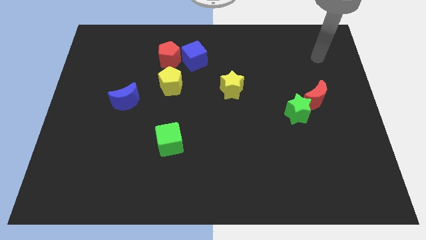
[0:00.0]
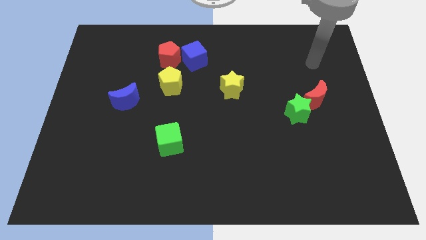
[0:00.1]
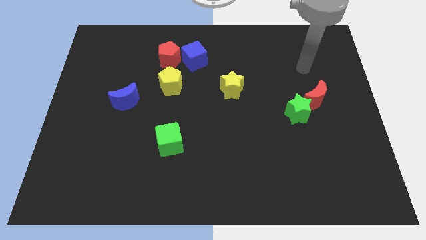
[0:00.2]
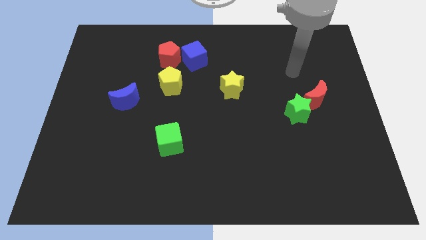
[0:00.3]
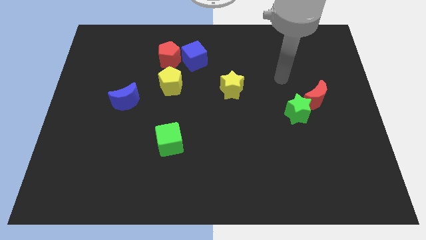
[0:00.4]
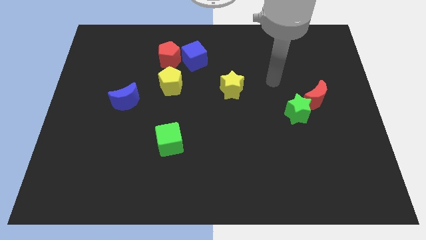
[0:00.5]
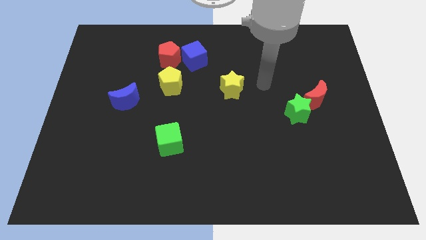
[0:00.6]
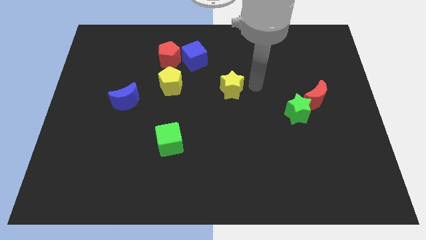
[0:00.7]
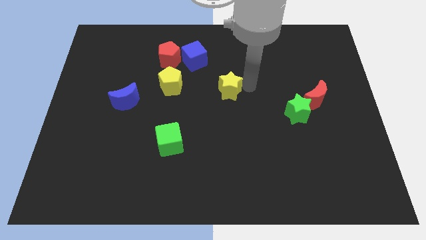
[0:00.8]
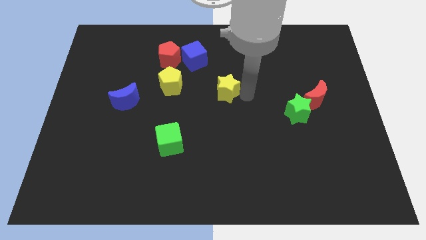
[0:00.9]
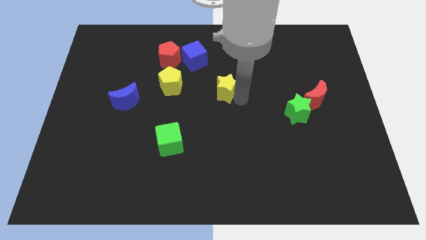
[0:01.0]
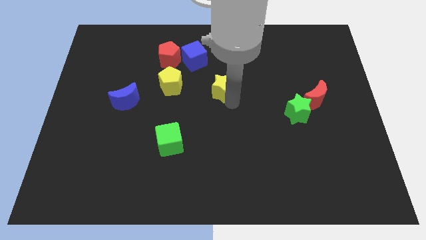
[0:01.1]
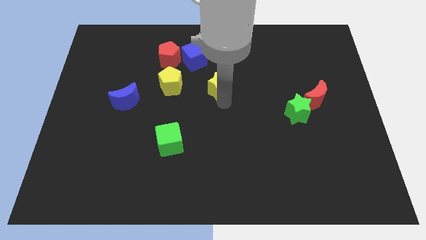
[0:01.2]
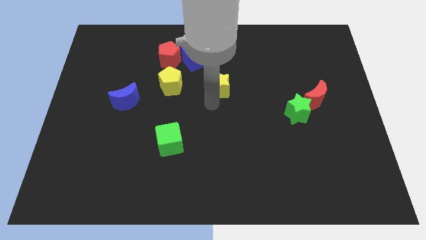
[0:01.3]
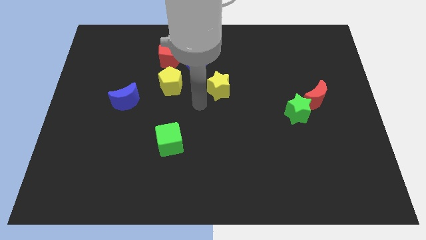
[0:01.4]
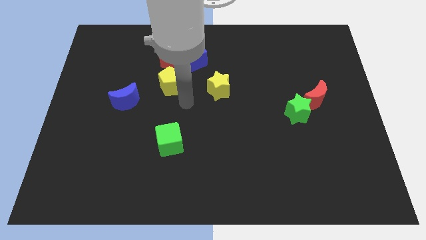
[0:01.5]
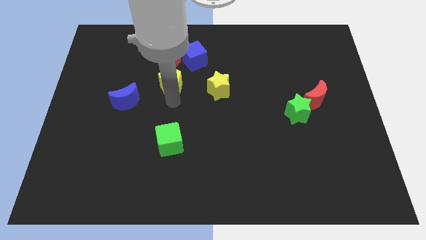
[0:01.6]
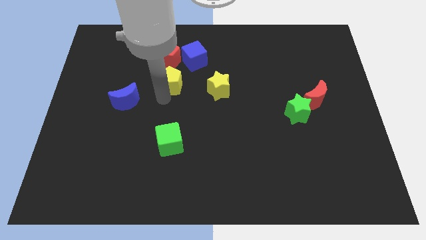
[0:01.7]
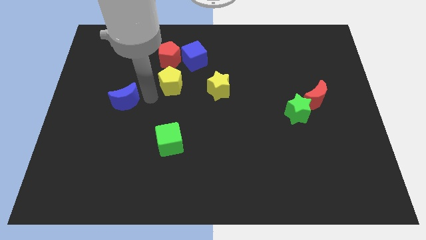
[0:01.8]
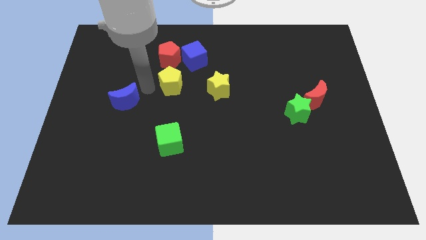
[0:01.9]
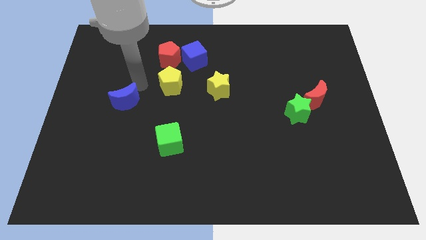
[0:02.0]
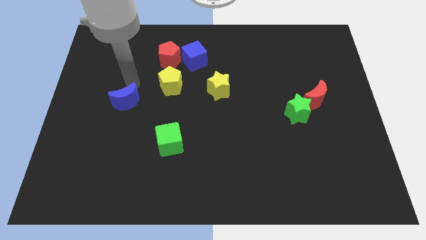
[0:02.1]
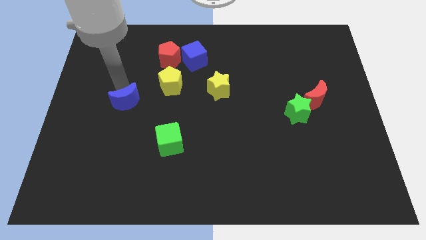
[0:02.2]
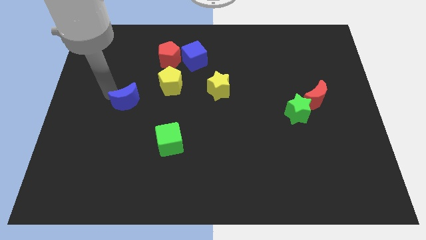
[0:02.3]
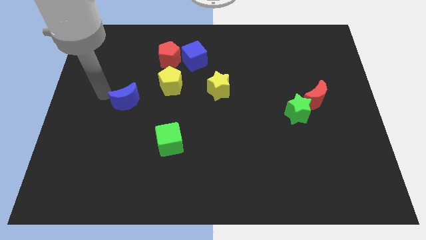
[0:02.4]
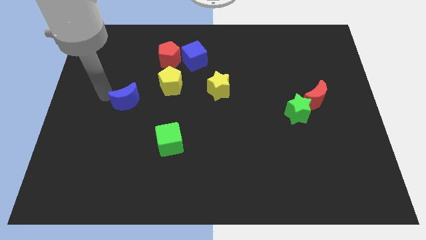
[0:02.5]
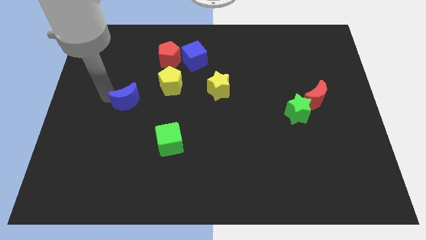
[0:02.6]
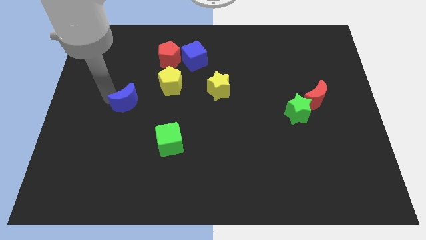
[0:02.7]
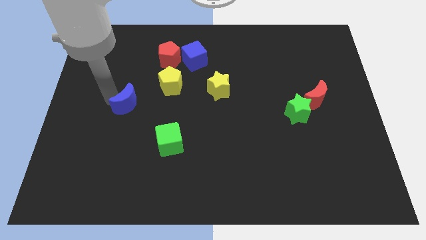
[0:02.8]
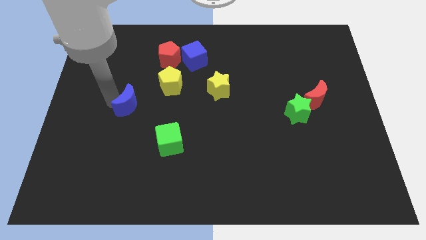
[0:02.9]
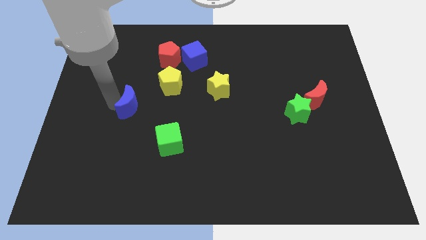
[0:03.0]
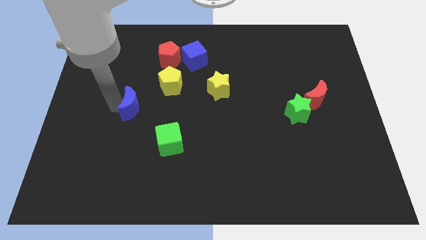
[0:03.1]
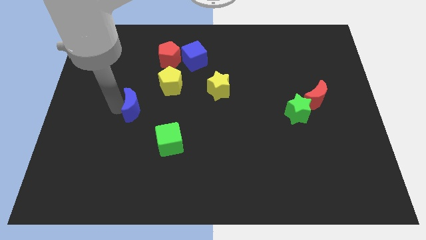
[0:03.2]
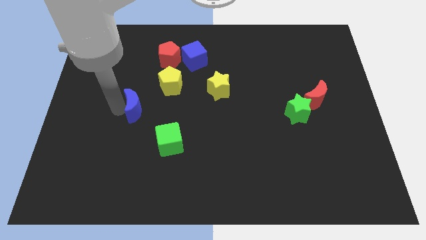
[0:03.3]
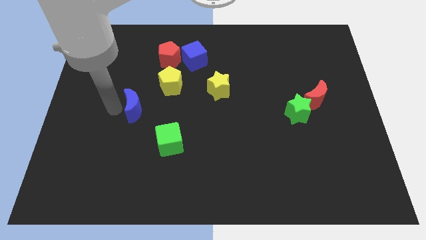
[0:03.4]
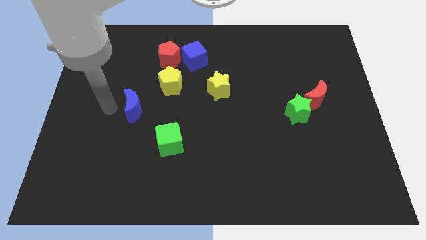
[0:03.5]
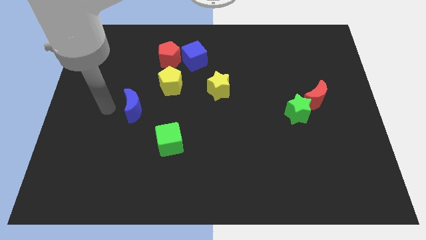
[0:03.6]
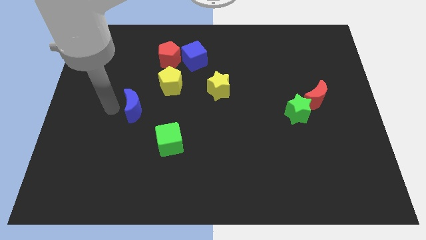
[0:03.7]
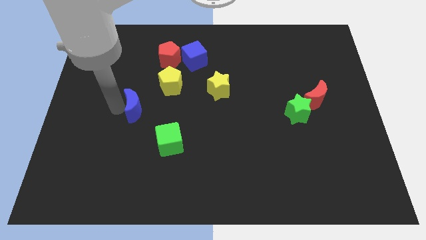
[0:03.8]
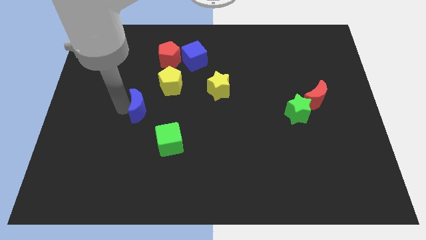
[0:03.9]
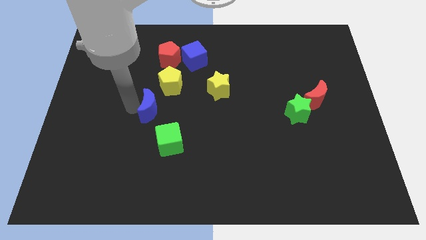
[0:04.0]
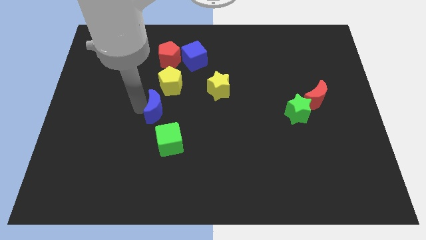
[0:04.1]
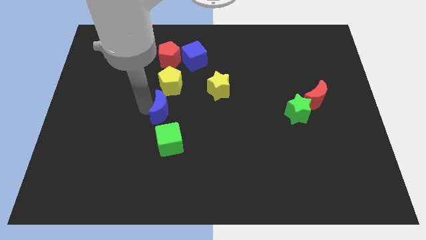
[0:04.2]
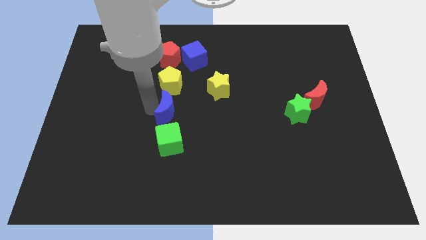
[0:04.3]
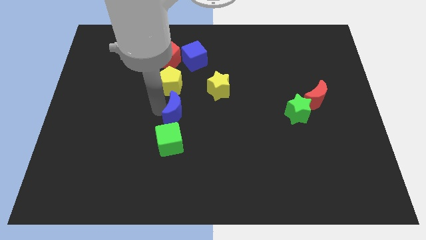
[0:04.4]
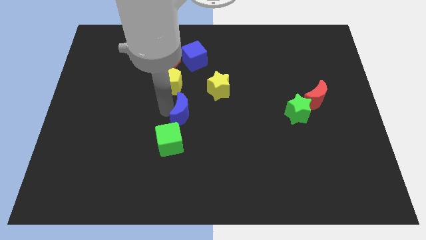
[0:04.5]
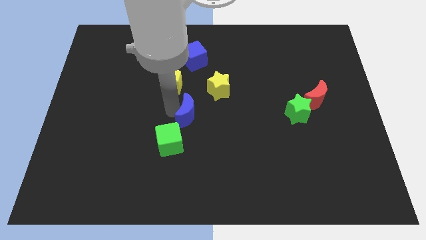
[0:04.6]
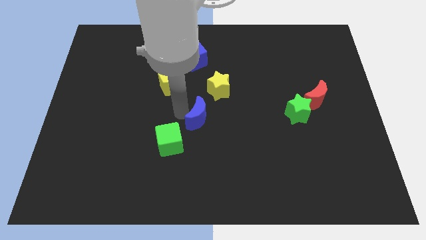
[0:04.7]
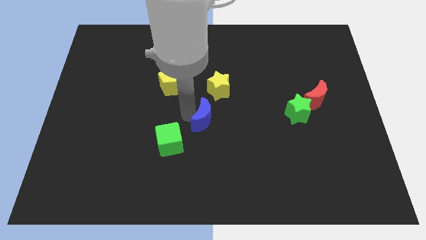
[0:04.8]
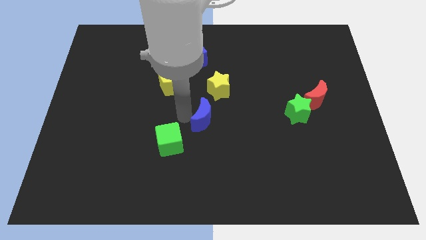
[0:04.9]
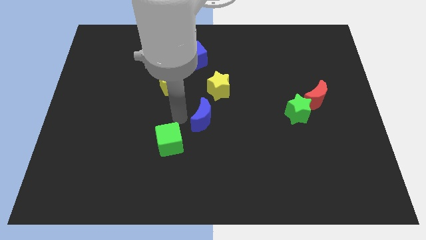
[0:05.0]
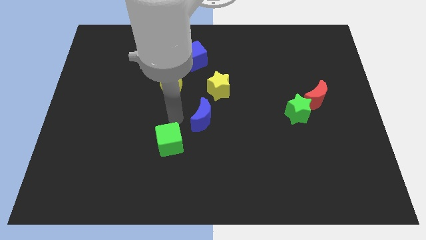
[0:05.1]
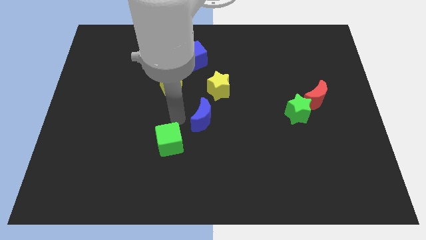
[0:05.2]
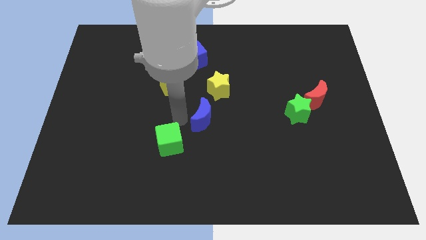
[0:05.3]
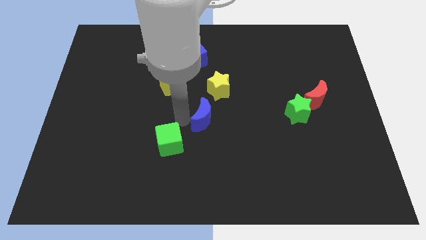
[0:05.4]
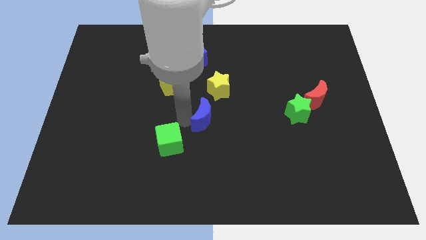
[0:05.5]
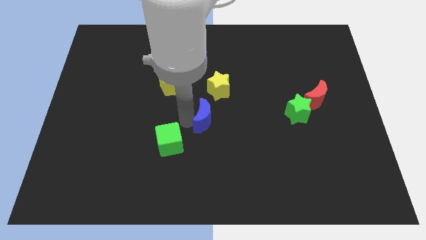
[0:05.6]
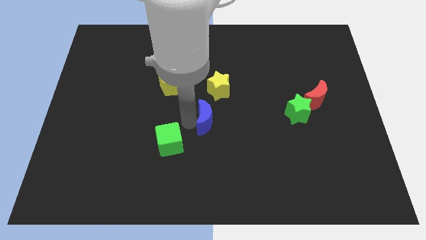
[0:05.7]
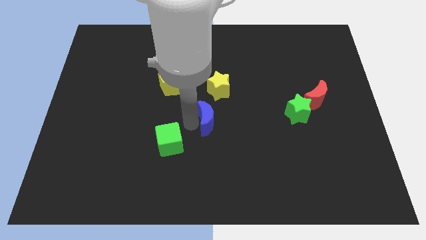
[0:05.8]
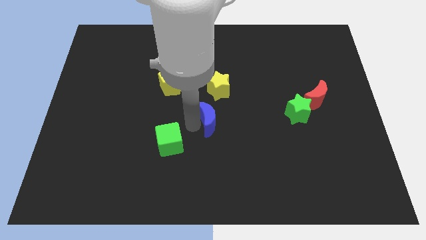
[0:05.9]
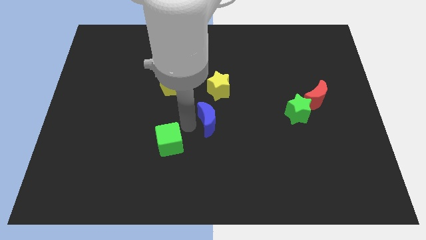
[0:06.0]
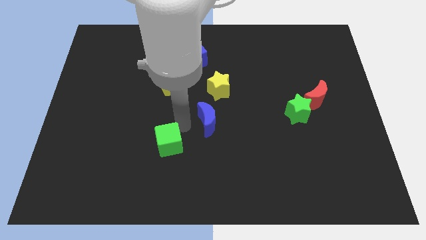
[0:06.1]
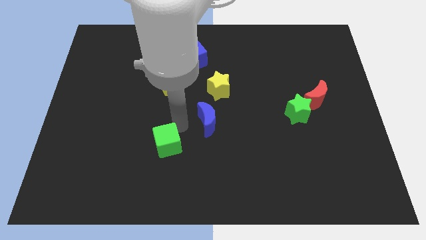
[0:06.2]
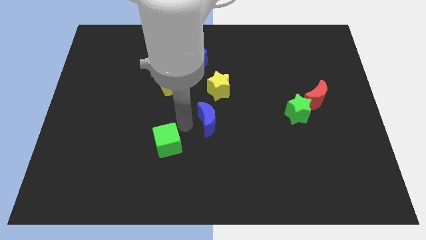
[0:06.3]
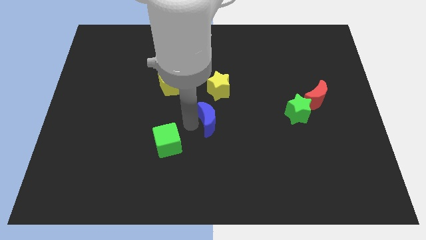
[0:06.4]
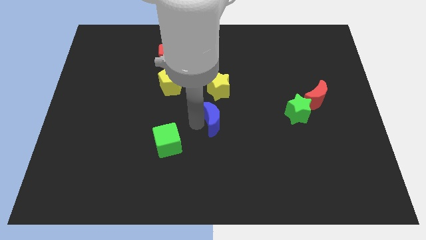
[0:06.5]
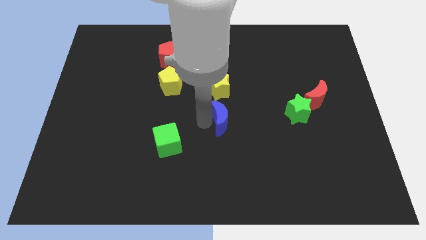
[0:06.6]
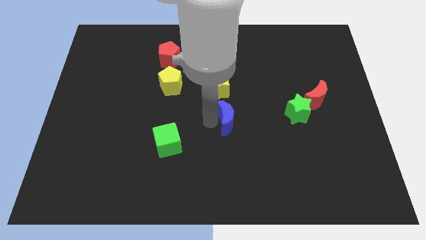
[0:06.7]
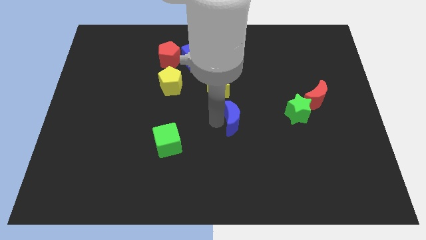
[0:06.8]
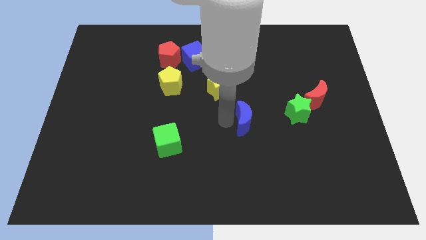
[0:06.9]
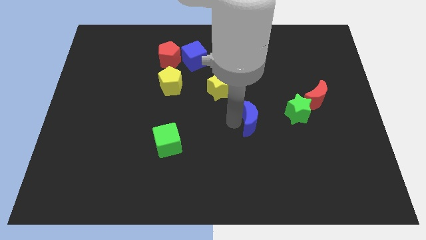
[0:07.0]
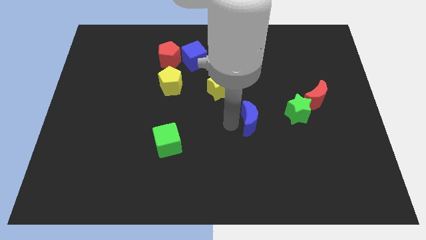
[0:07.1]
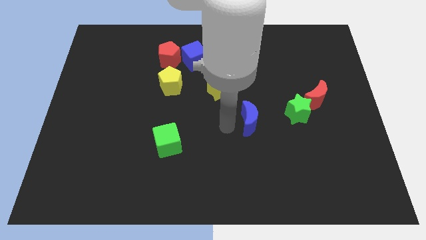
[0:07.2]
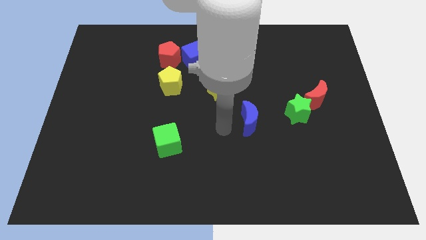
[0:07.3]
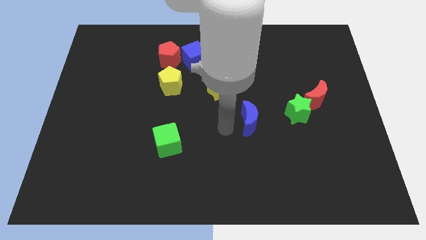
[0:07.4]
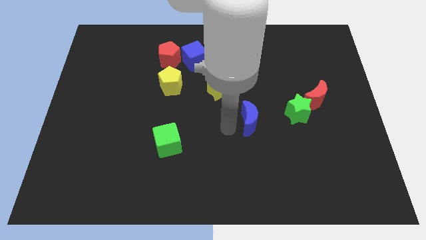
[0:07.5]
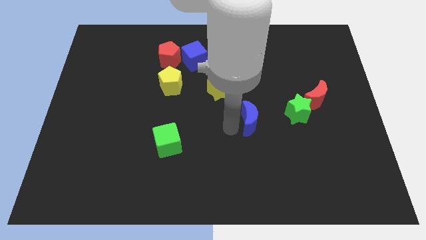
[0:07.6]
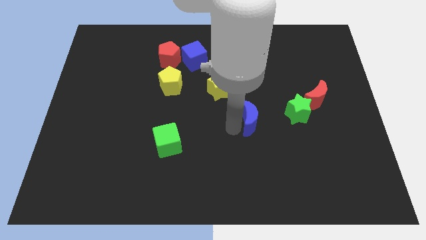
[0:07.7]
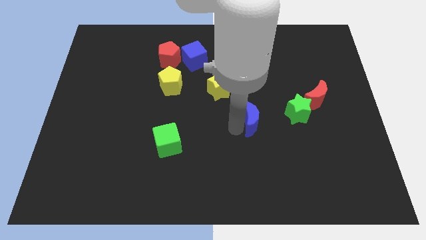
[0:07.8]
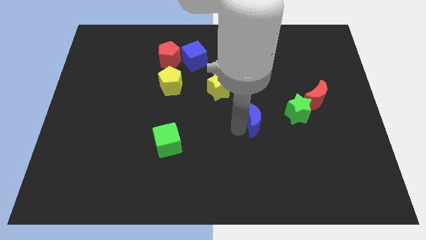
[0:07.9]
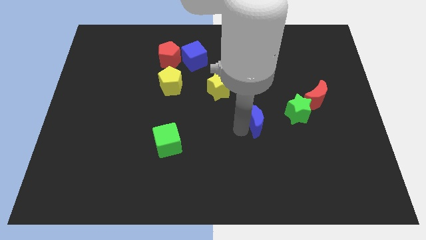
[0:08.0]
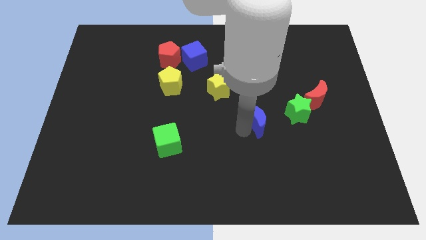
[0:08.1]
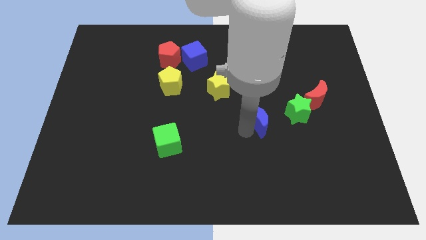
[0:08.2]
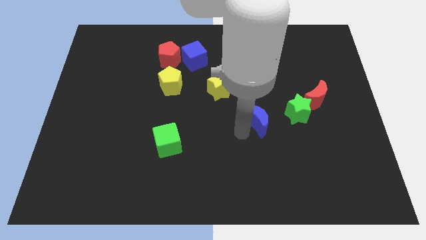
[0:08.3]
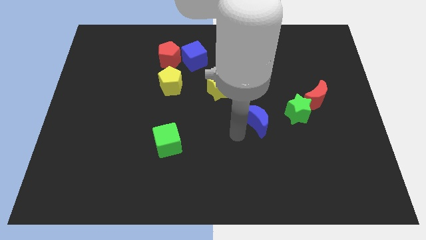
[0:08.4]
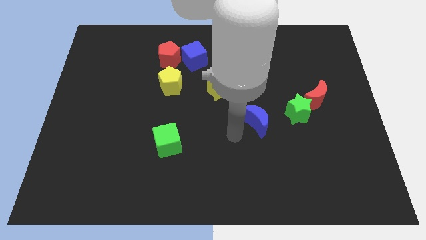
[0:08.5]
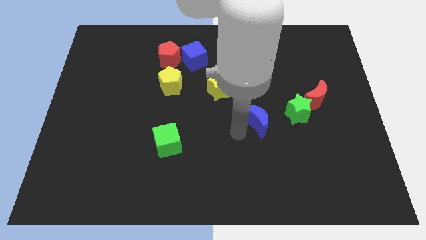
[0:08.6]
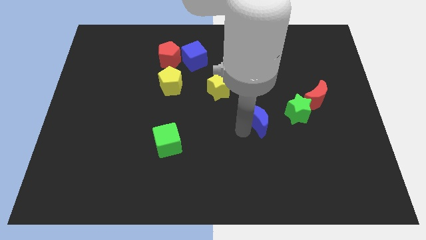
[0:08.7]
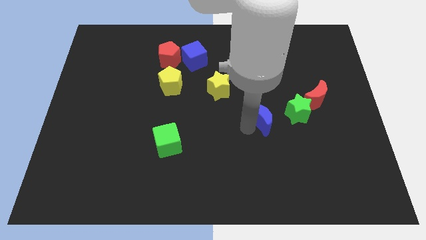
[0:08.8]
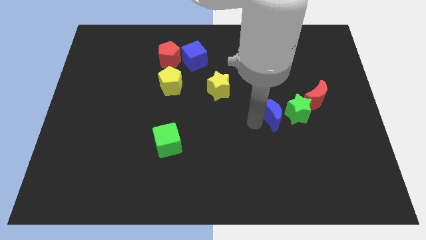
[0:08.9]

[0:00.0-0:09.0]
put the blue moon next to the green star
